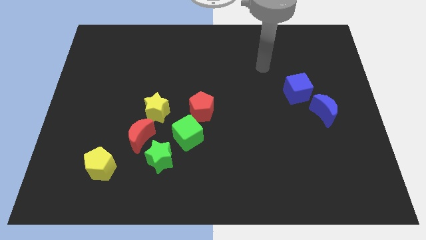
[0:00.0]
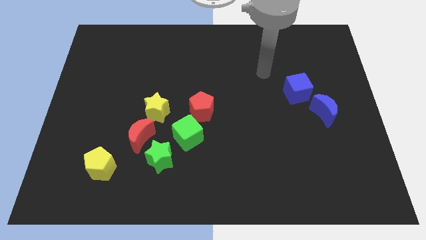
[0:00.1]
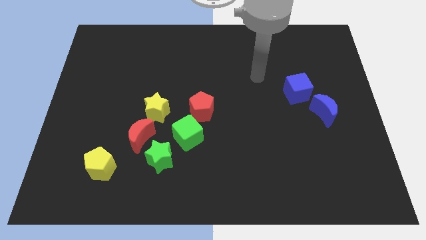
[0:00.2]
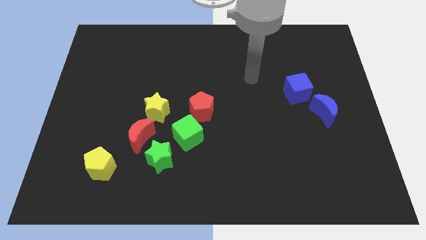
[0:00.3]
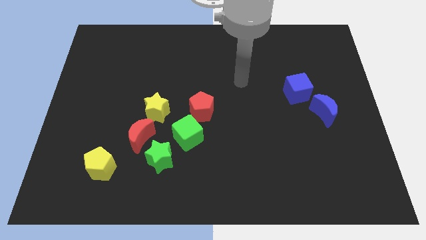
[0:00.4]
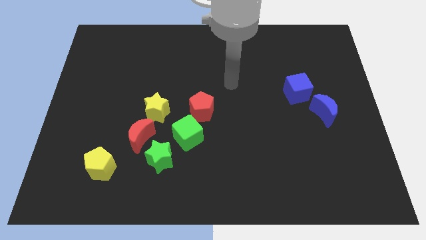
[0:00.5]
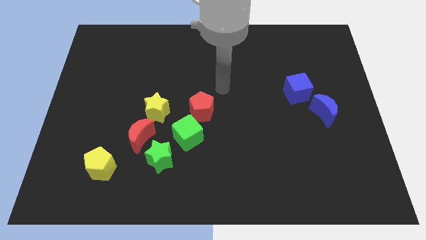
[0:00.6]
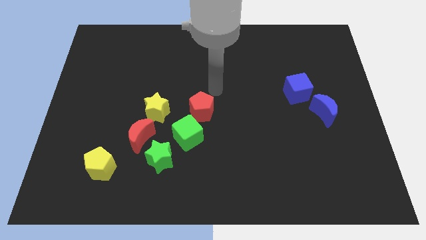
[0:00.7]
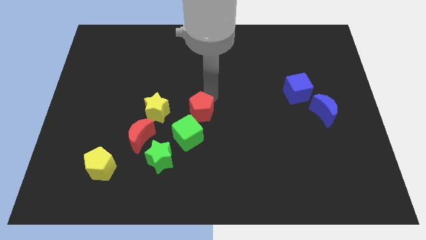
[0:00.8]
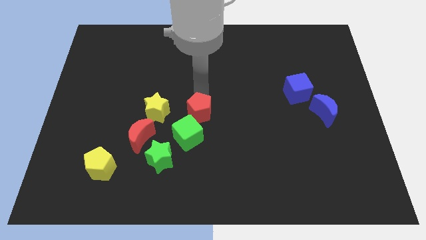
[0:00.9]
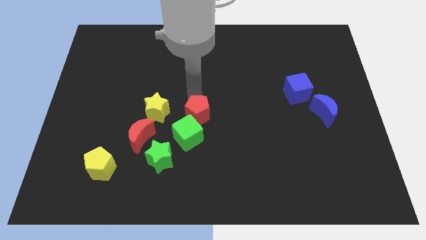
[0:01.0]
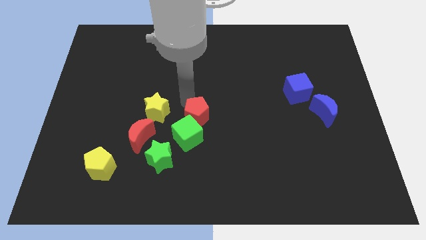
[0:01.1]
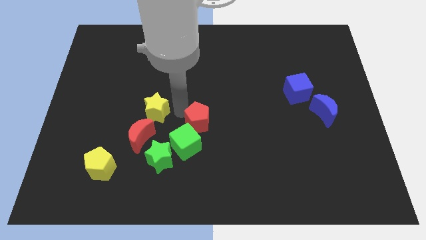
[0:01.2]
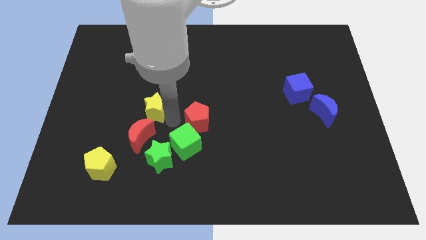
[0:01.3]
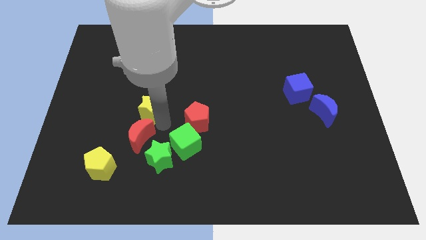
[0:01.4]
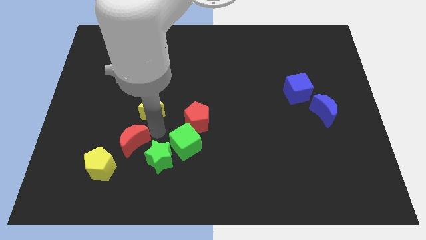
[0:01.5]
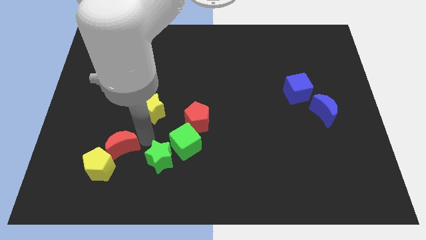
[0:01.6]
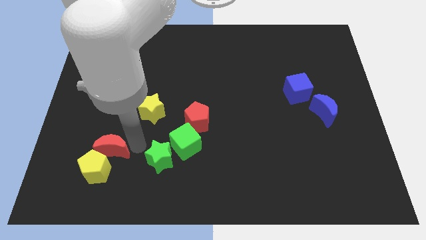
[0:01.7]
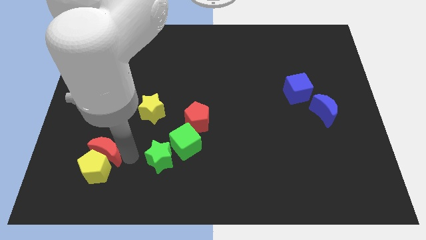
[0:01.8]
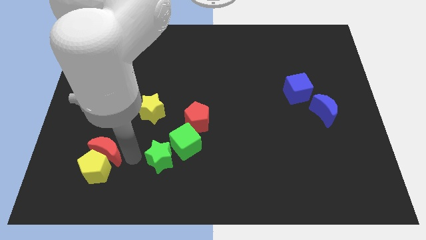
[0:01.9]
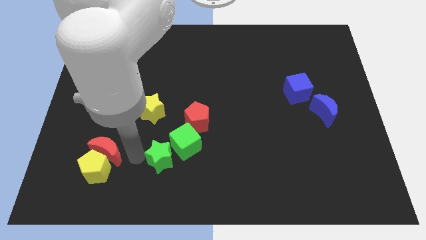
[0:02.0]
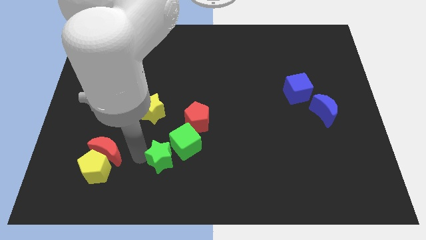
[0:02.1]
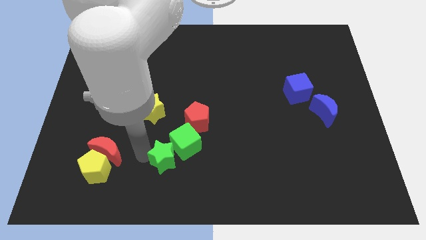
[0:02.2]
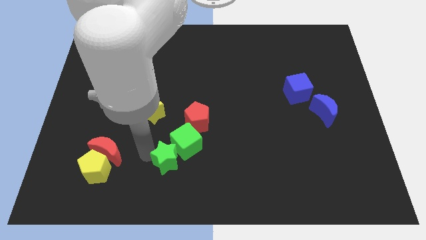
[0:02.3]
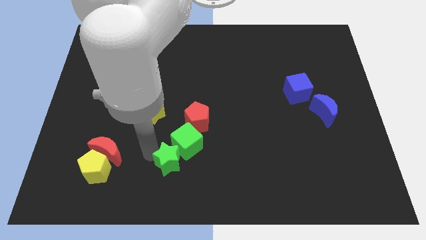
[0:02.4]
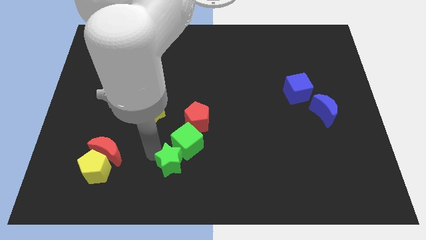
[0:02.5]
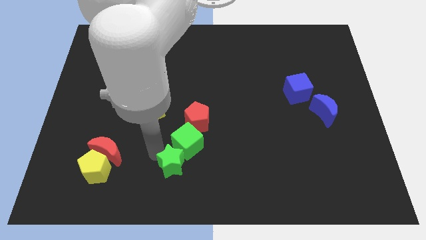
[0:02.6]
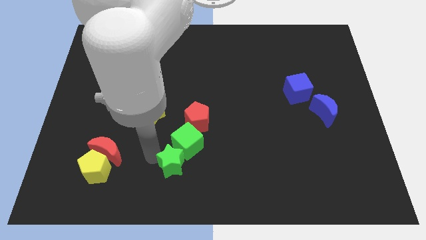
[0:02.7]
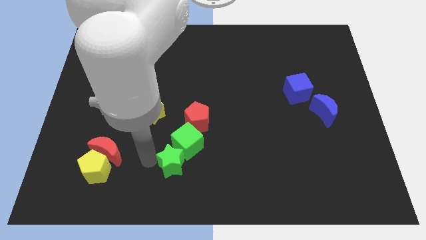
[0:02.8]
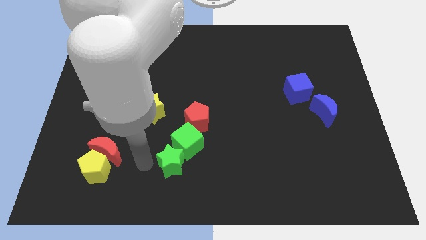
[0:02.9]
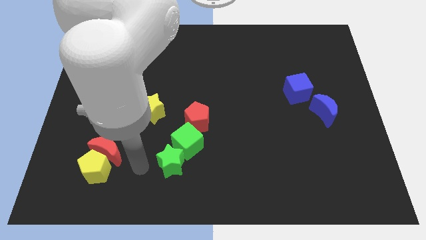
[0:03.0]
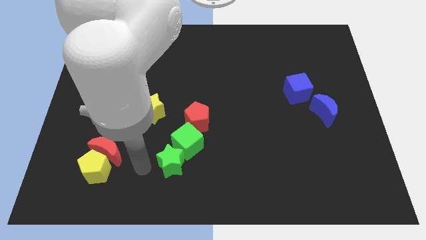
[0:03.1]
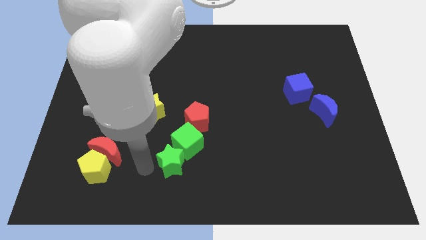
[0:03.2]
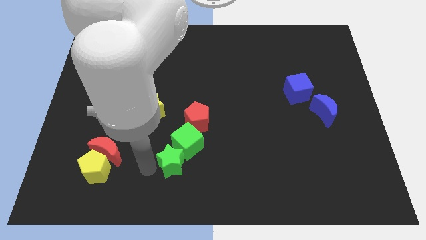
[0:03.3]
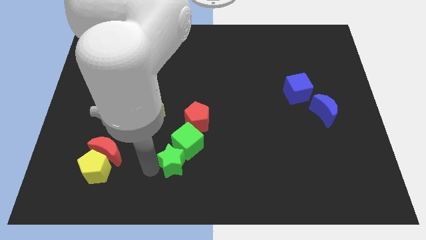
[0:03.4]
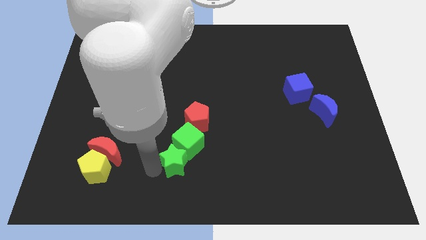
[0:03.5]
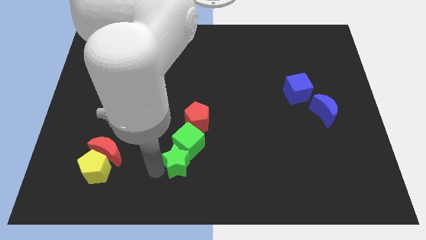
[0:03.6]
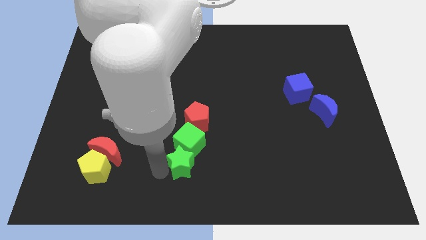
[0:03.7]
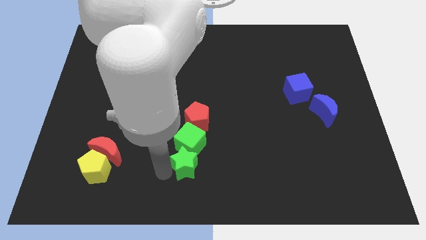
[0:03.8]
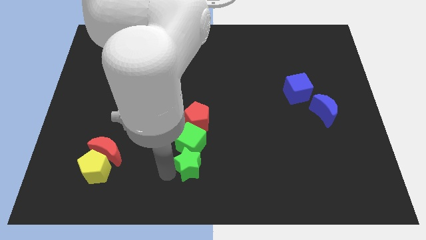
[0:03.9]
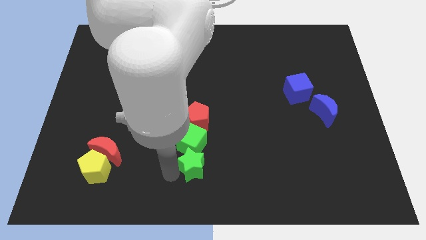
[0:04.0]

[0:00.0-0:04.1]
push the green star somewhat to the right

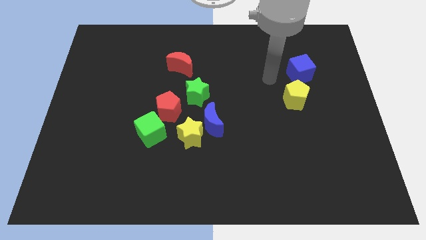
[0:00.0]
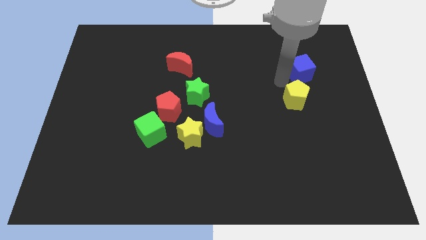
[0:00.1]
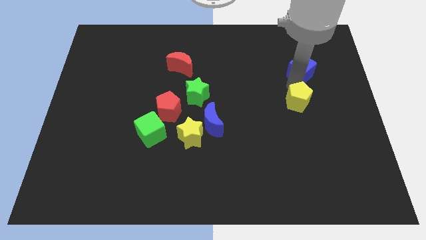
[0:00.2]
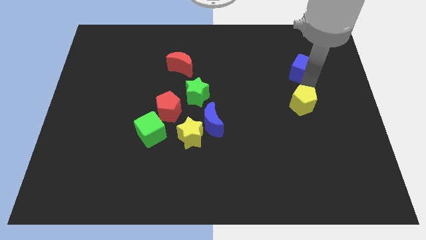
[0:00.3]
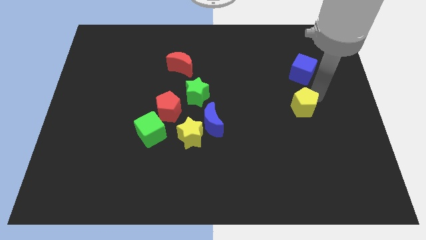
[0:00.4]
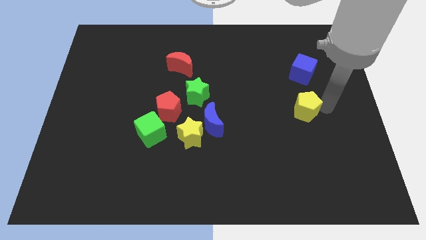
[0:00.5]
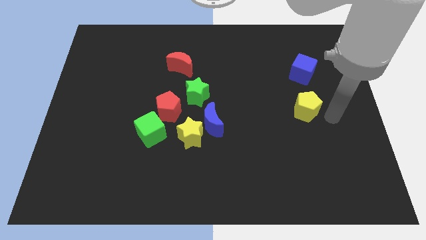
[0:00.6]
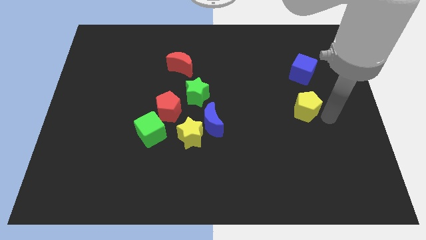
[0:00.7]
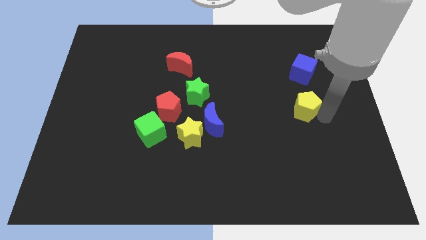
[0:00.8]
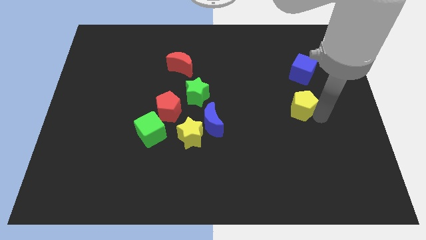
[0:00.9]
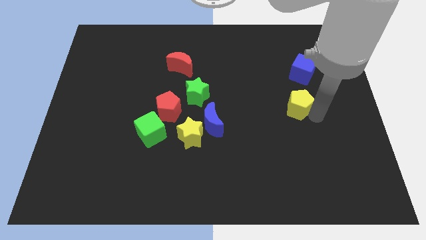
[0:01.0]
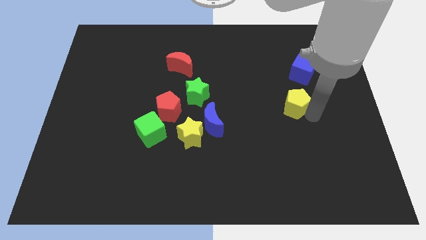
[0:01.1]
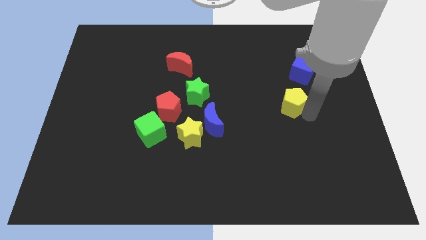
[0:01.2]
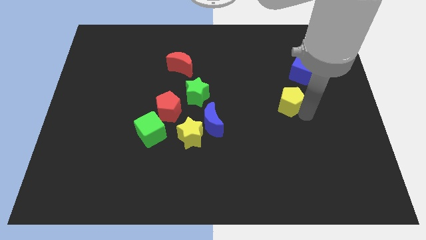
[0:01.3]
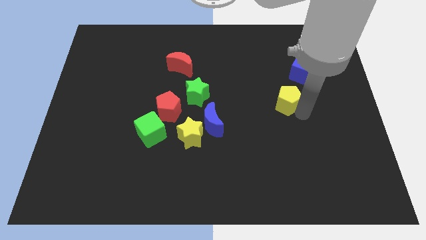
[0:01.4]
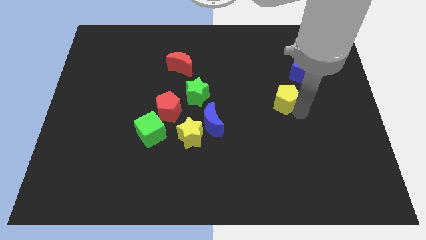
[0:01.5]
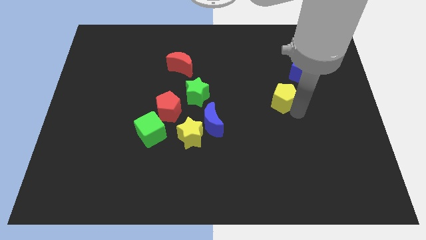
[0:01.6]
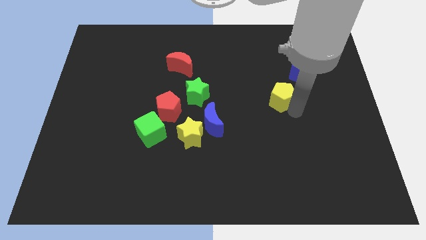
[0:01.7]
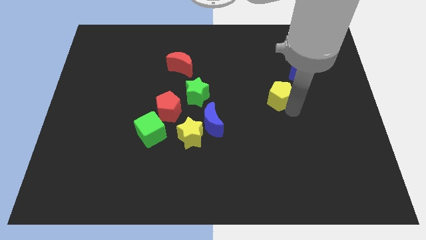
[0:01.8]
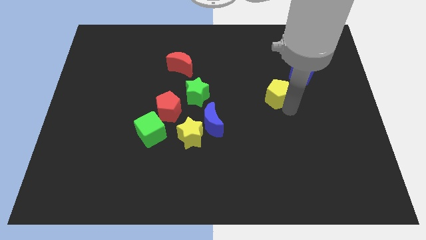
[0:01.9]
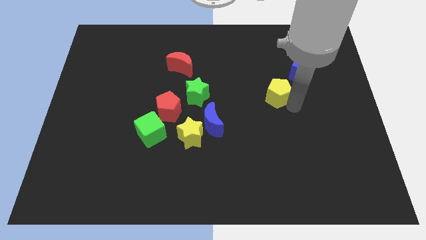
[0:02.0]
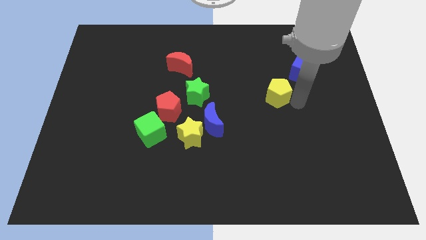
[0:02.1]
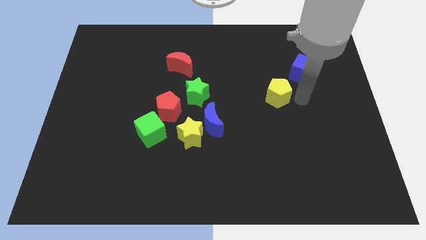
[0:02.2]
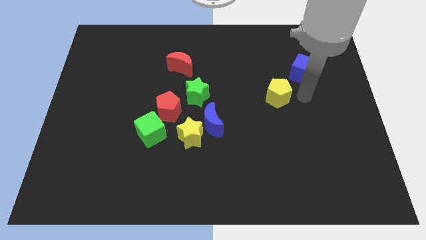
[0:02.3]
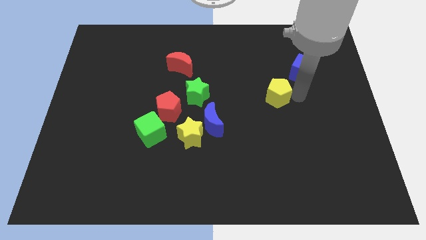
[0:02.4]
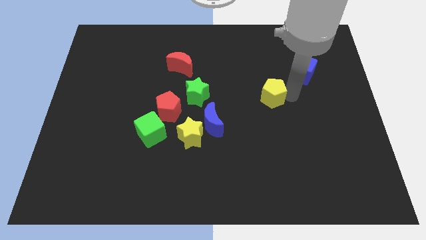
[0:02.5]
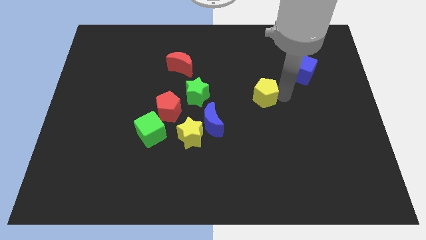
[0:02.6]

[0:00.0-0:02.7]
slide the yellow pentagon left a little bit

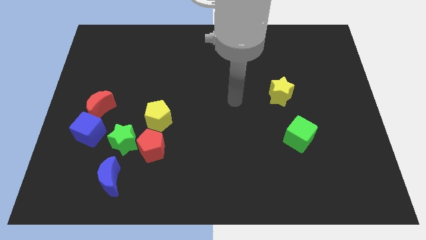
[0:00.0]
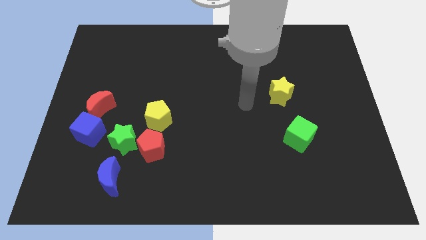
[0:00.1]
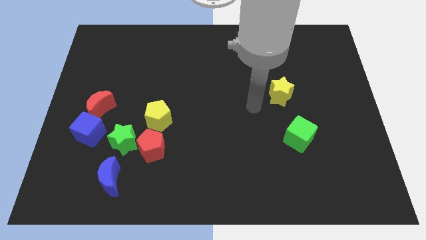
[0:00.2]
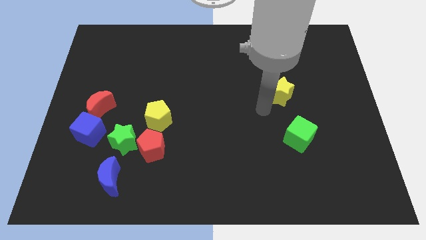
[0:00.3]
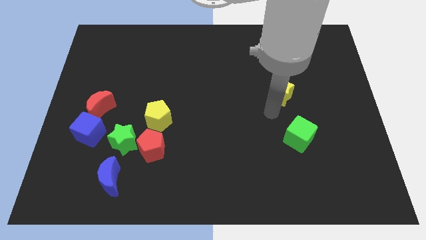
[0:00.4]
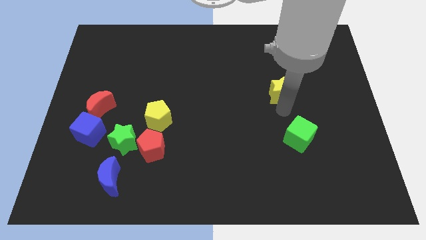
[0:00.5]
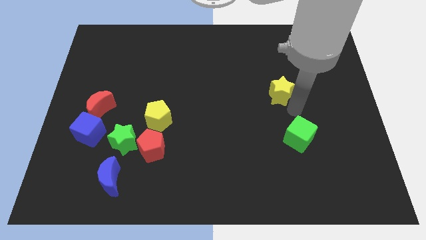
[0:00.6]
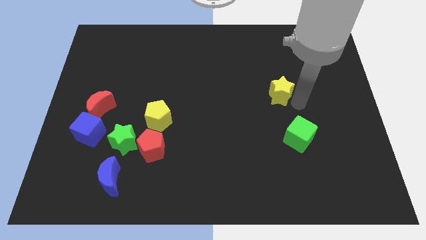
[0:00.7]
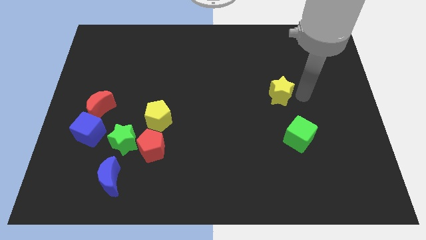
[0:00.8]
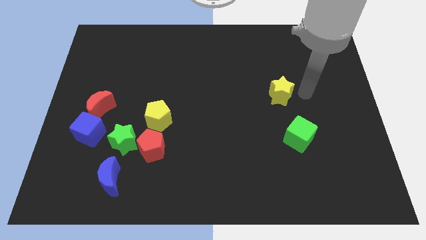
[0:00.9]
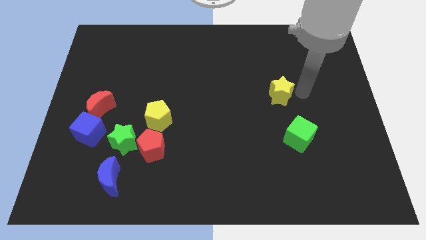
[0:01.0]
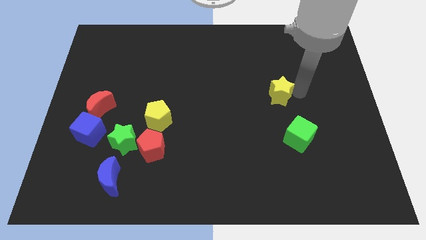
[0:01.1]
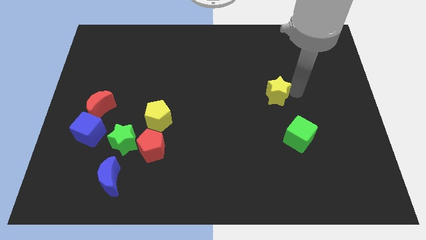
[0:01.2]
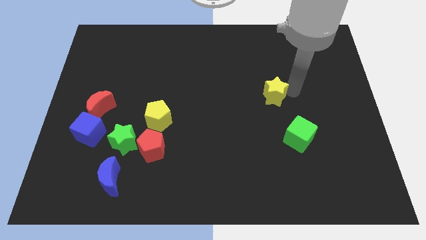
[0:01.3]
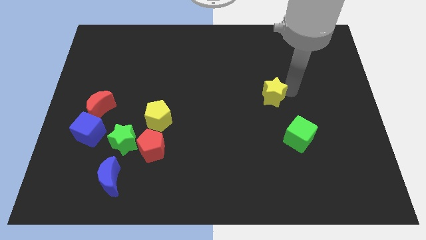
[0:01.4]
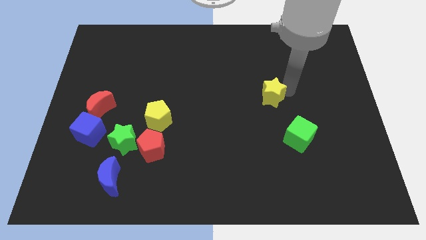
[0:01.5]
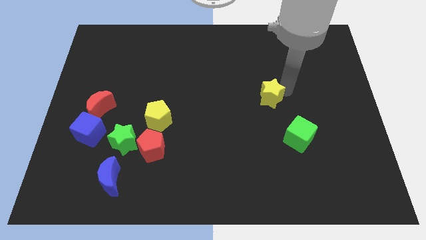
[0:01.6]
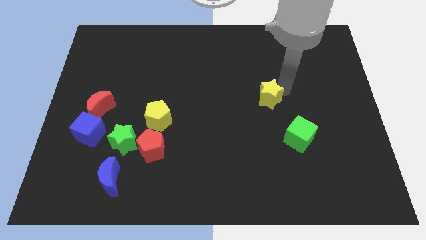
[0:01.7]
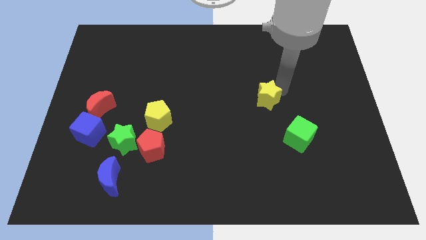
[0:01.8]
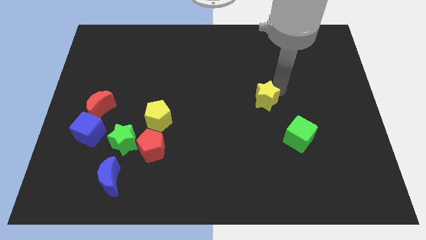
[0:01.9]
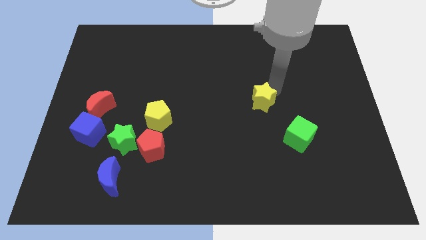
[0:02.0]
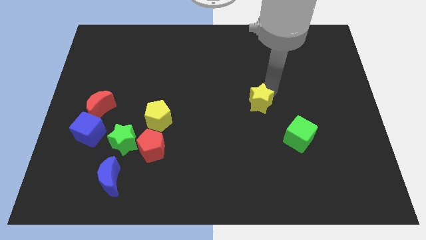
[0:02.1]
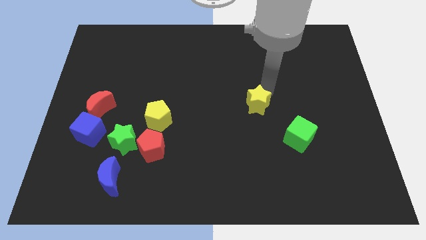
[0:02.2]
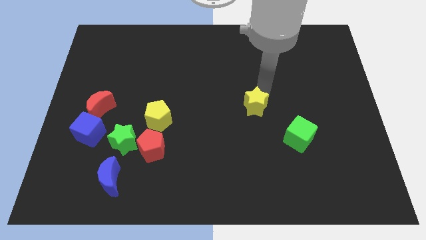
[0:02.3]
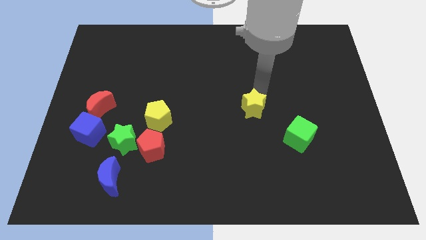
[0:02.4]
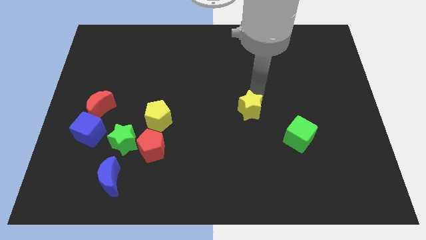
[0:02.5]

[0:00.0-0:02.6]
move the yellow star somewhat left
